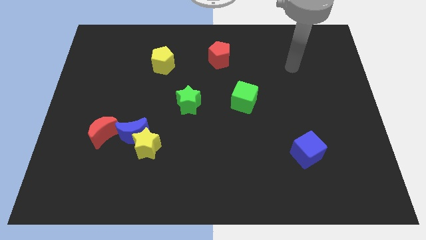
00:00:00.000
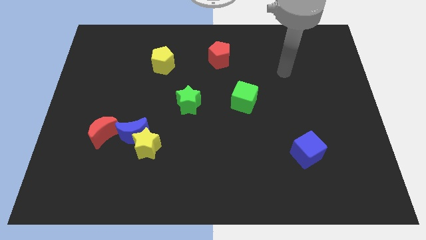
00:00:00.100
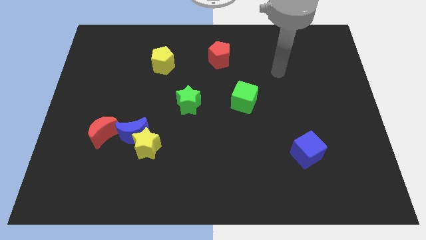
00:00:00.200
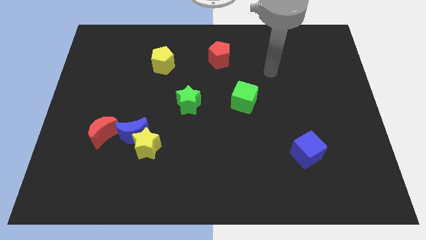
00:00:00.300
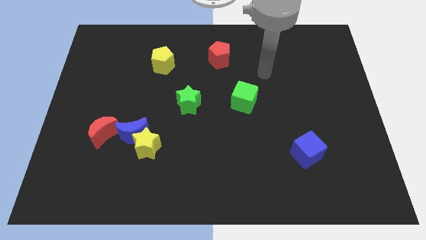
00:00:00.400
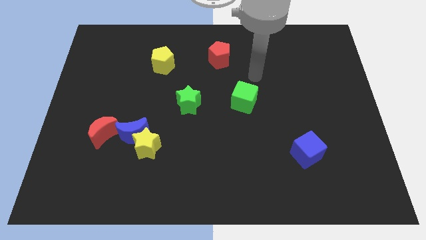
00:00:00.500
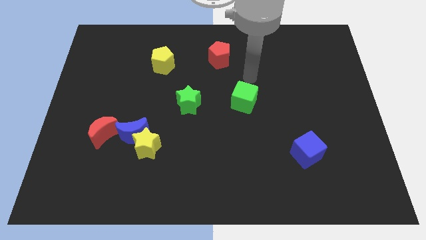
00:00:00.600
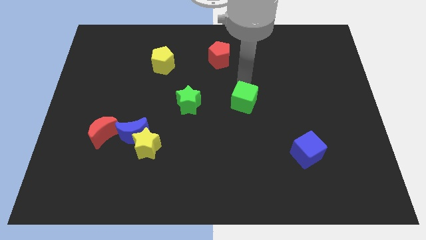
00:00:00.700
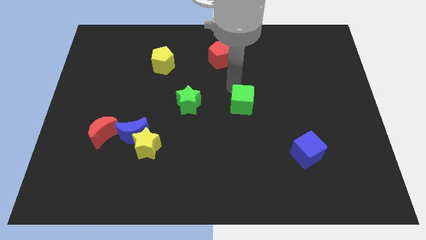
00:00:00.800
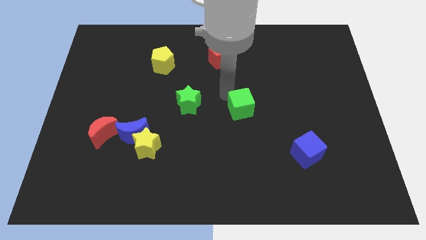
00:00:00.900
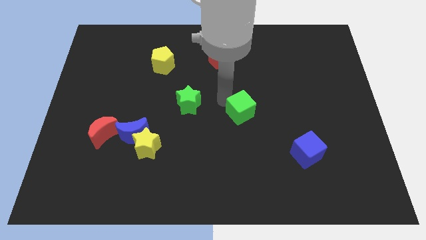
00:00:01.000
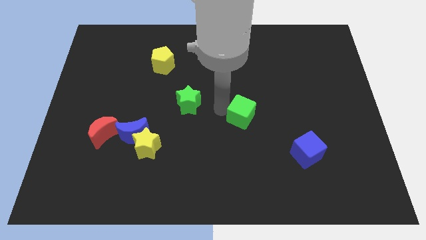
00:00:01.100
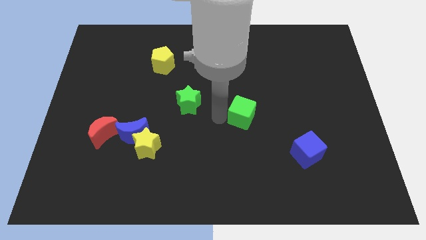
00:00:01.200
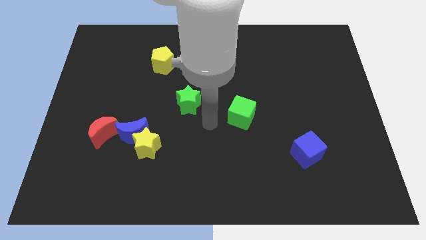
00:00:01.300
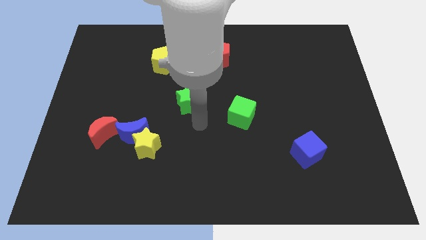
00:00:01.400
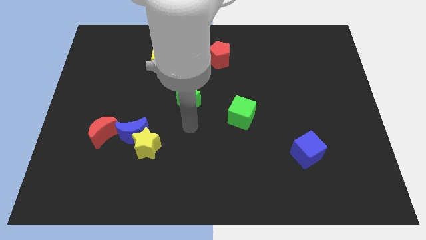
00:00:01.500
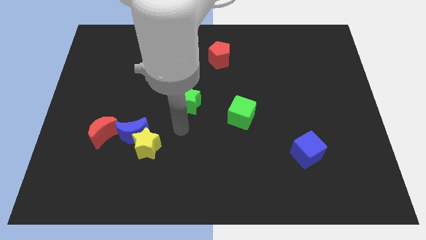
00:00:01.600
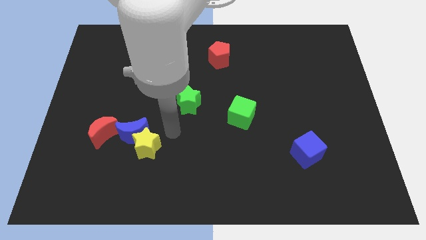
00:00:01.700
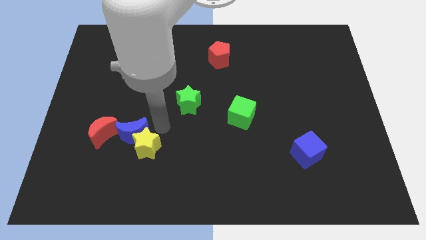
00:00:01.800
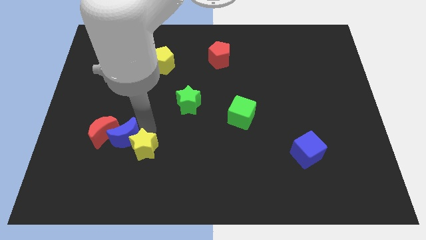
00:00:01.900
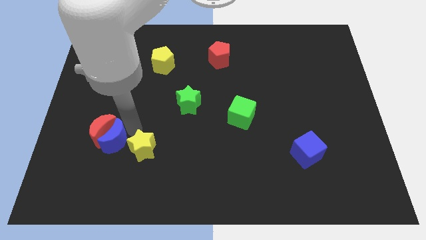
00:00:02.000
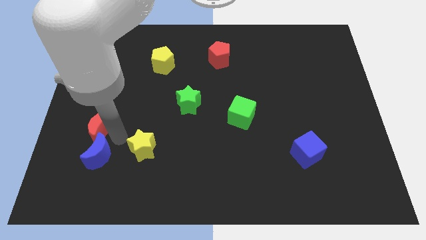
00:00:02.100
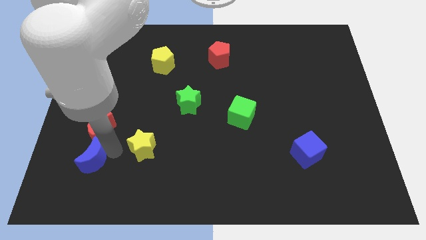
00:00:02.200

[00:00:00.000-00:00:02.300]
separate the yellow star from the blue moon

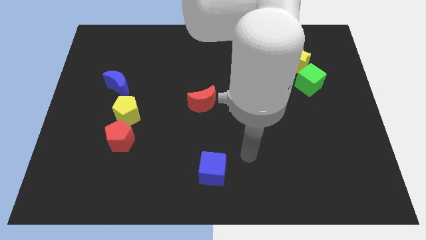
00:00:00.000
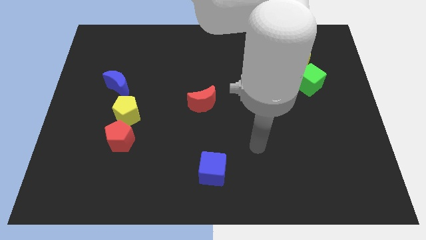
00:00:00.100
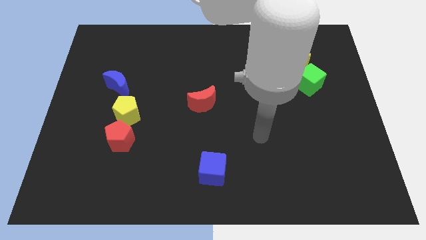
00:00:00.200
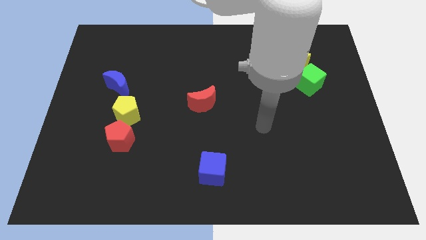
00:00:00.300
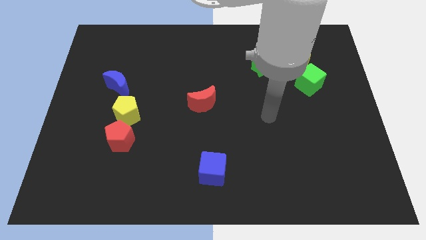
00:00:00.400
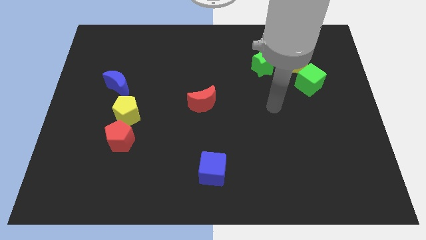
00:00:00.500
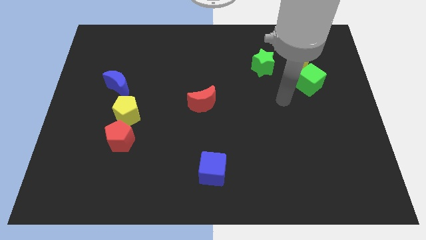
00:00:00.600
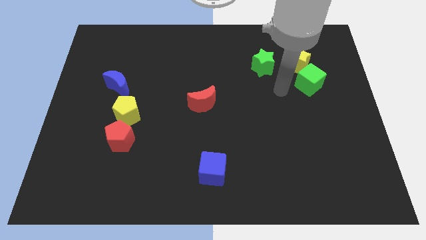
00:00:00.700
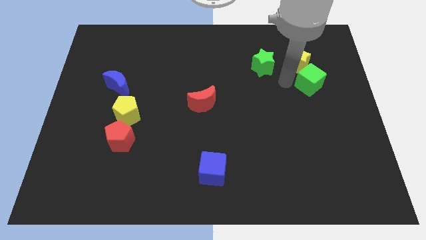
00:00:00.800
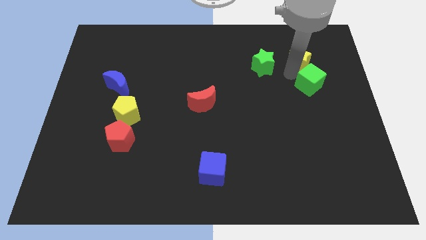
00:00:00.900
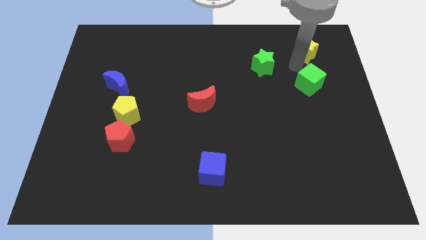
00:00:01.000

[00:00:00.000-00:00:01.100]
move the green cube away from the yellow star

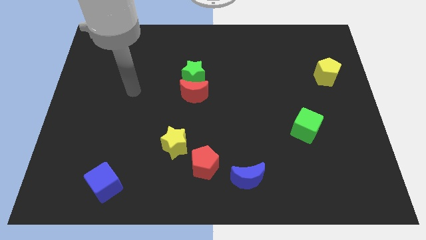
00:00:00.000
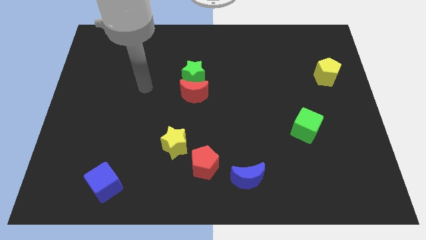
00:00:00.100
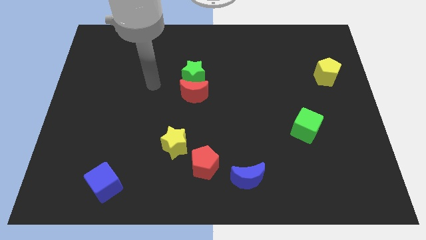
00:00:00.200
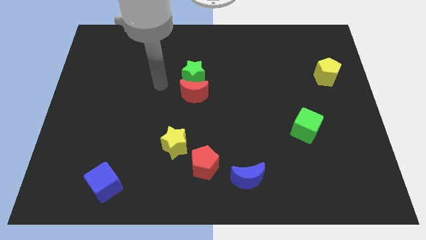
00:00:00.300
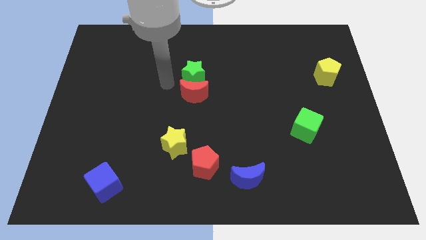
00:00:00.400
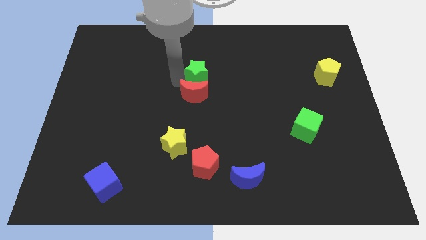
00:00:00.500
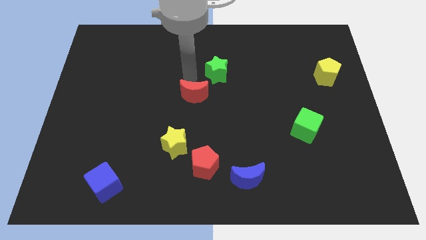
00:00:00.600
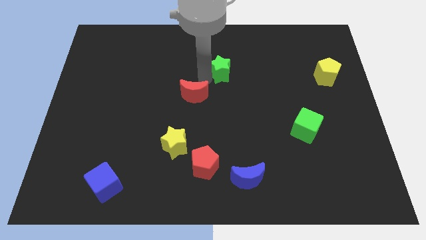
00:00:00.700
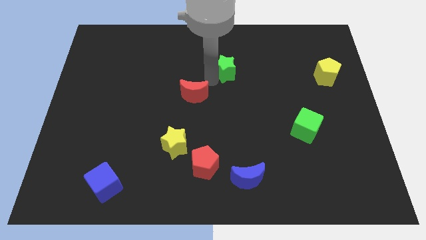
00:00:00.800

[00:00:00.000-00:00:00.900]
separate the red moon from the green star

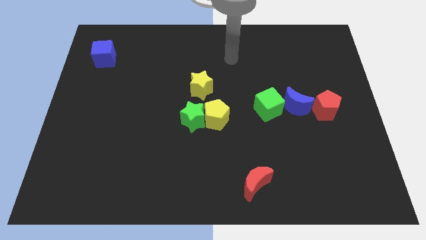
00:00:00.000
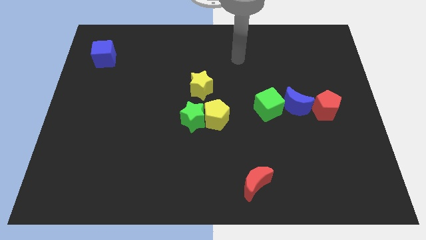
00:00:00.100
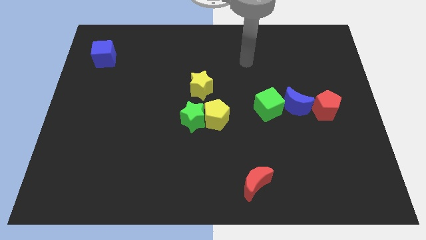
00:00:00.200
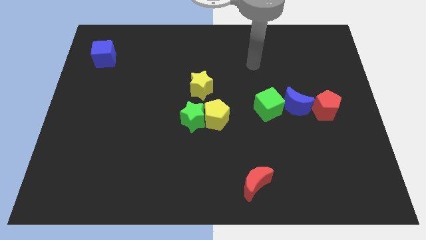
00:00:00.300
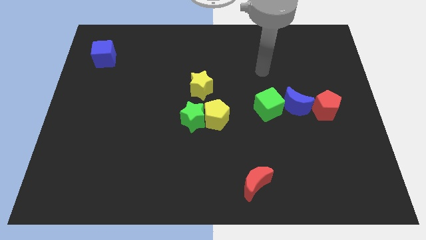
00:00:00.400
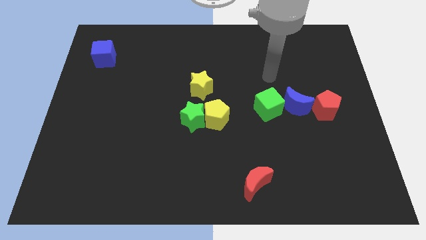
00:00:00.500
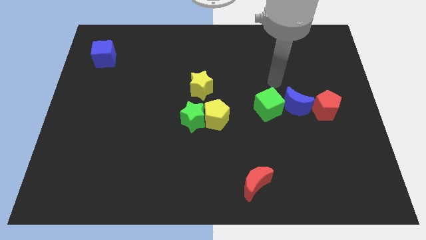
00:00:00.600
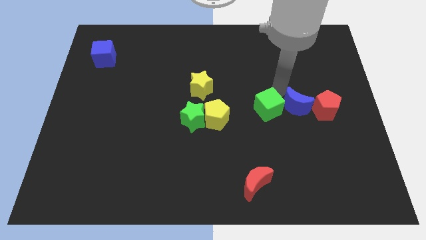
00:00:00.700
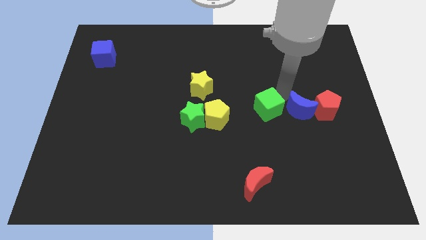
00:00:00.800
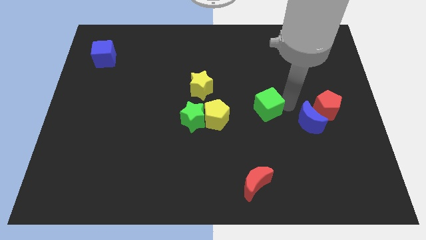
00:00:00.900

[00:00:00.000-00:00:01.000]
move the green cube away from the blue moon

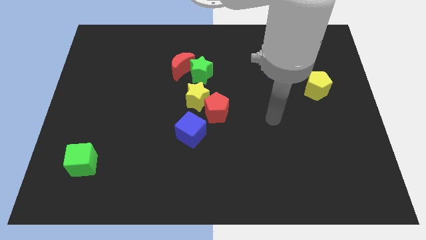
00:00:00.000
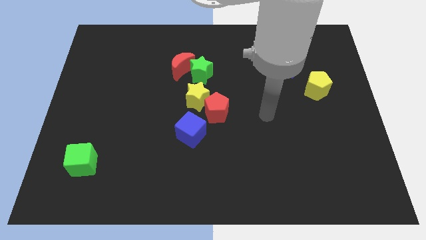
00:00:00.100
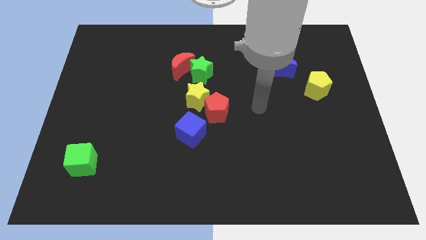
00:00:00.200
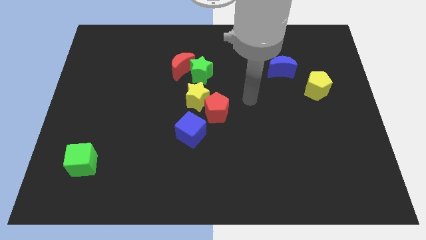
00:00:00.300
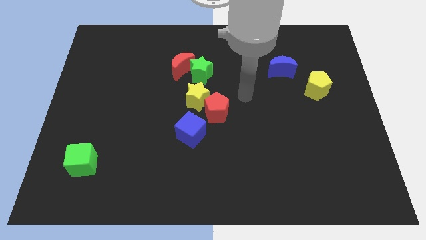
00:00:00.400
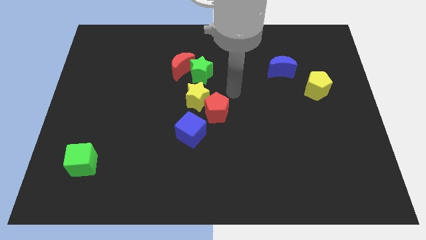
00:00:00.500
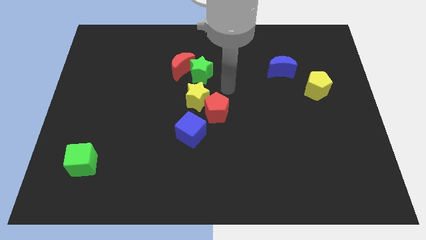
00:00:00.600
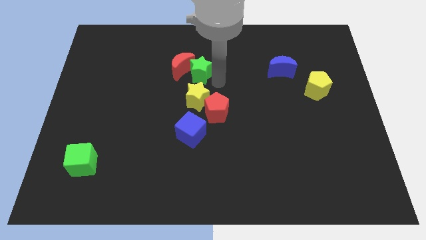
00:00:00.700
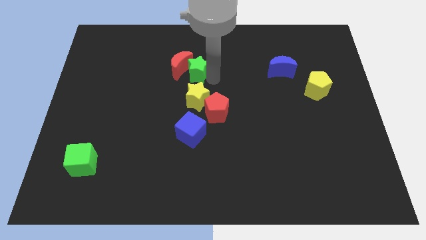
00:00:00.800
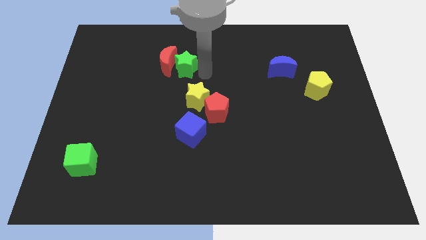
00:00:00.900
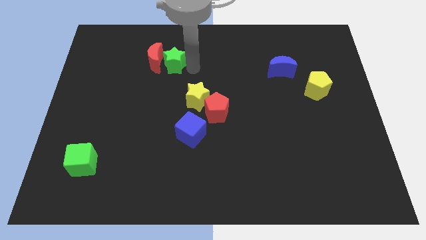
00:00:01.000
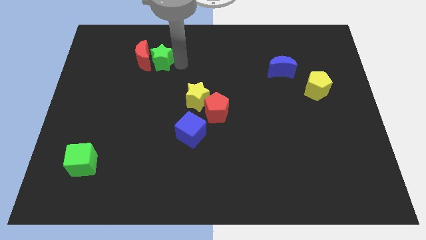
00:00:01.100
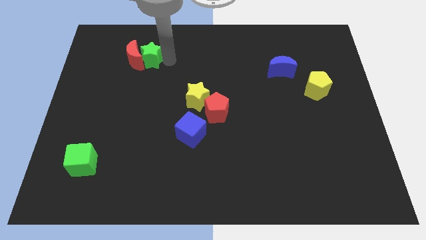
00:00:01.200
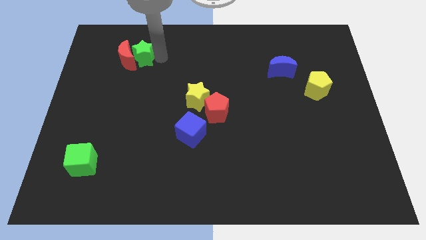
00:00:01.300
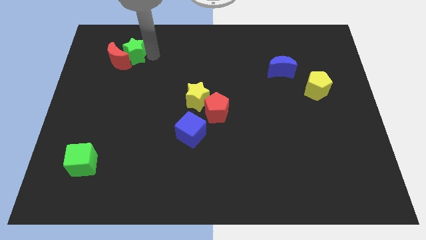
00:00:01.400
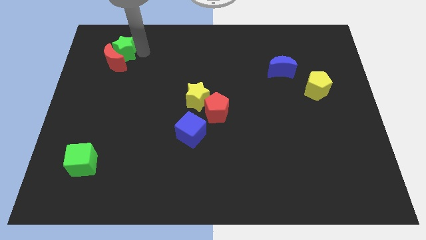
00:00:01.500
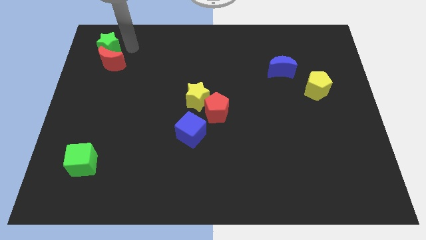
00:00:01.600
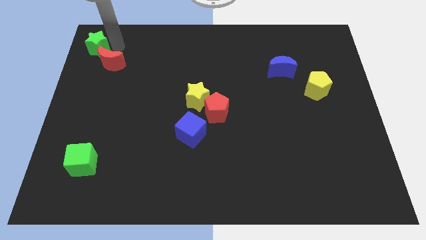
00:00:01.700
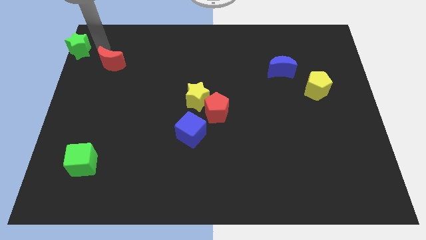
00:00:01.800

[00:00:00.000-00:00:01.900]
pull the red moon apart from the green star

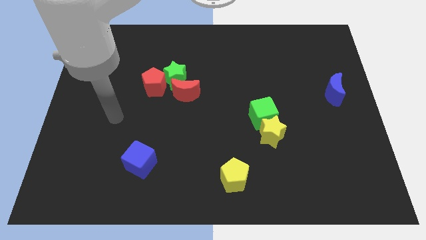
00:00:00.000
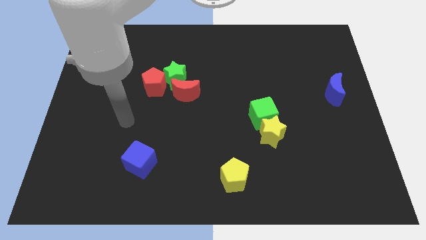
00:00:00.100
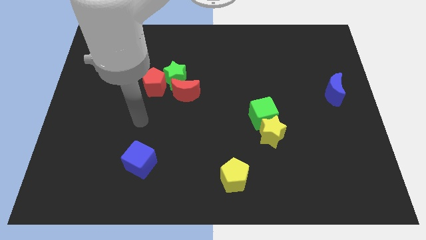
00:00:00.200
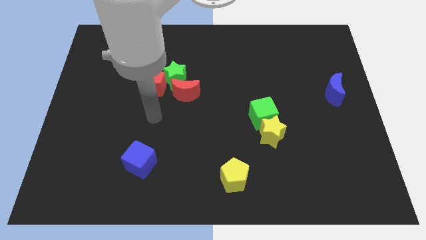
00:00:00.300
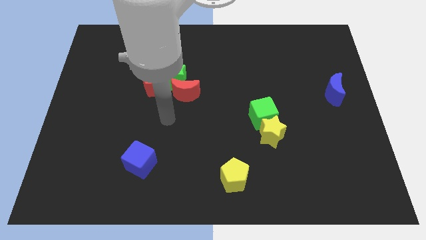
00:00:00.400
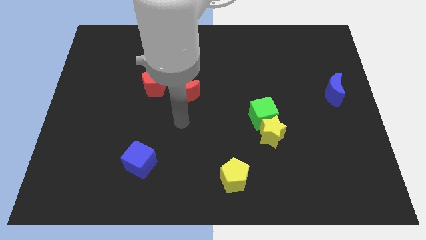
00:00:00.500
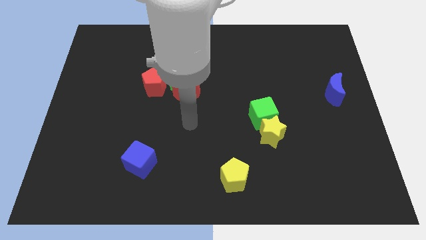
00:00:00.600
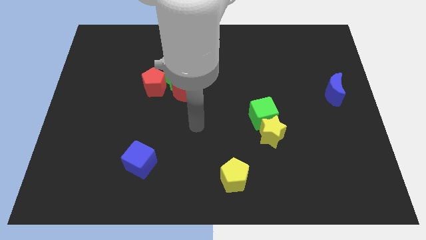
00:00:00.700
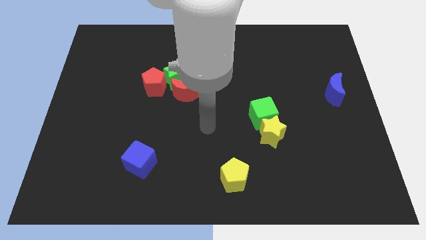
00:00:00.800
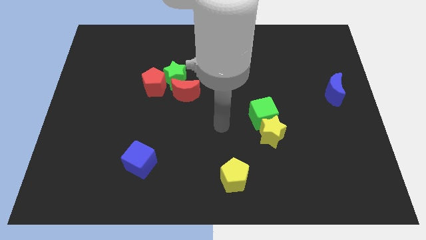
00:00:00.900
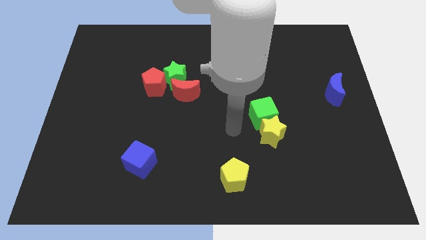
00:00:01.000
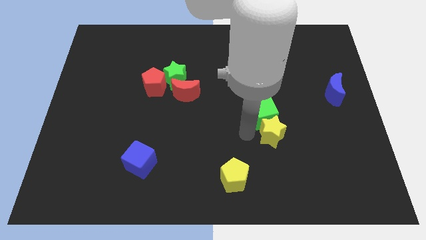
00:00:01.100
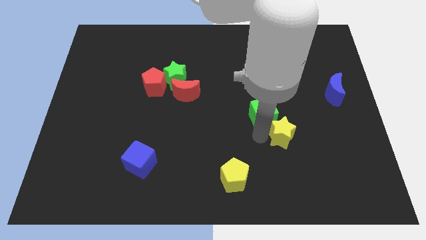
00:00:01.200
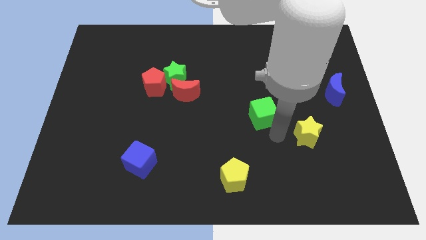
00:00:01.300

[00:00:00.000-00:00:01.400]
pull the green cube apart from the yellow star

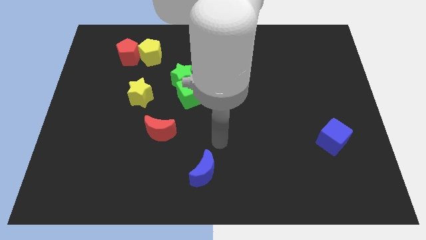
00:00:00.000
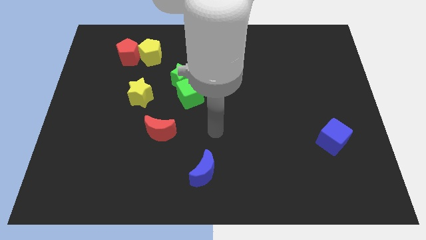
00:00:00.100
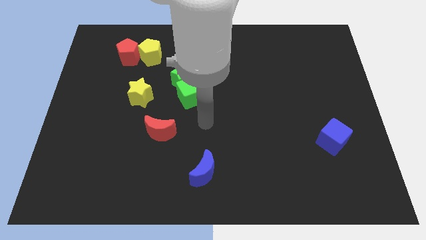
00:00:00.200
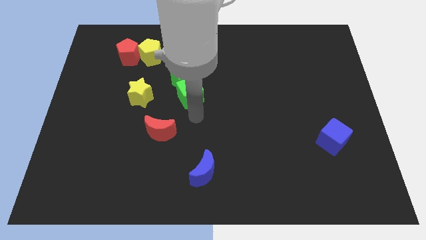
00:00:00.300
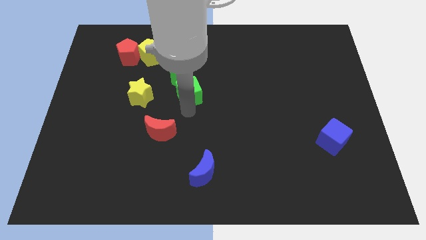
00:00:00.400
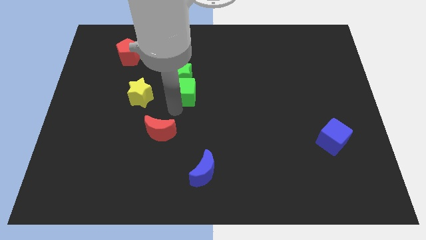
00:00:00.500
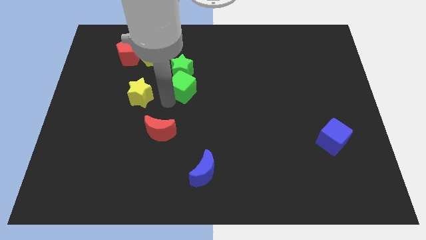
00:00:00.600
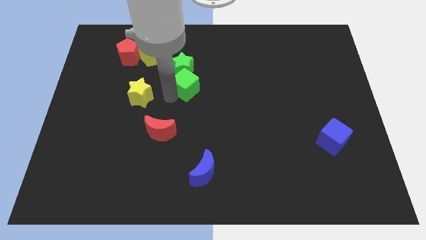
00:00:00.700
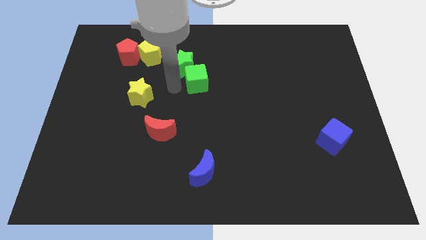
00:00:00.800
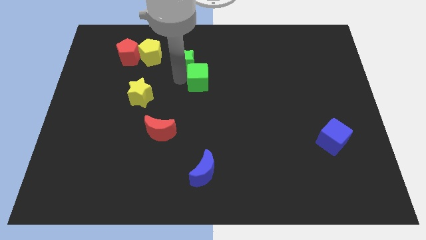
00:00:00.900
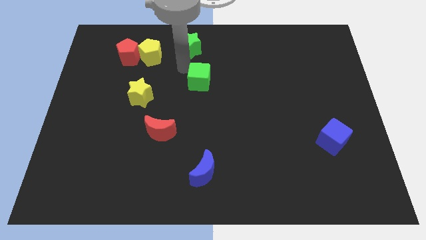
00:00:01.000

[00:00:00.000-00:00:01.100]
move the green cube away from the green star
